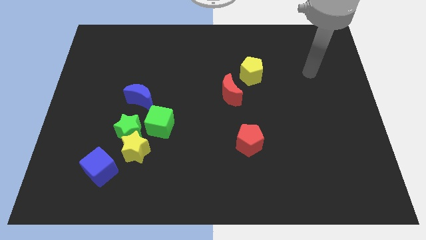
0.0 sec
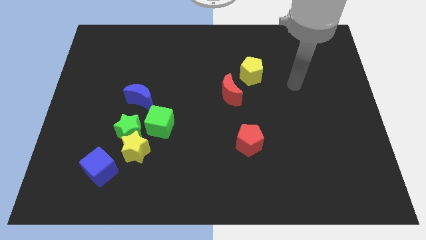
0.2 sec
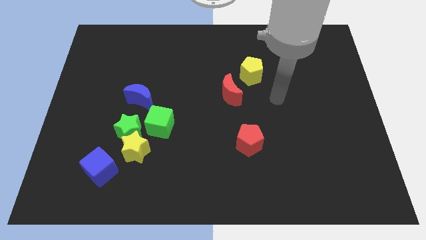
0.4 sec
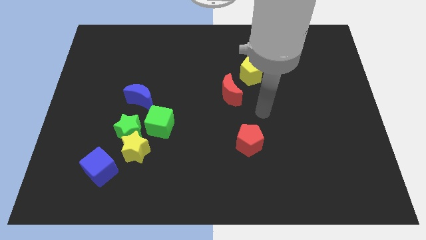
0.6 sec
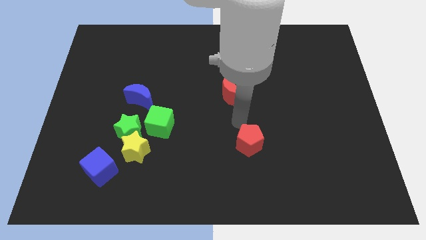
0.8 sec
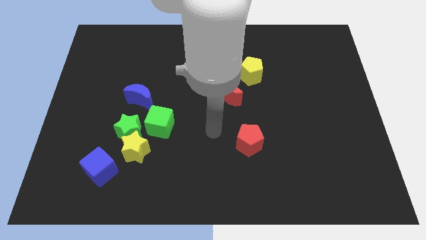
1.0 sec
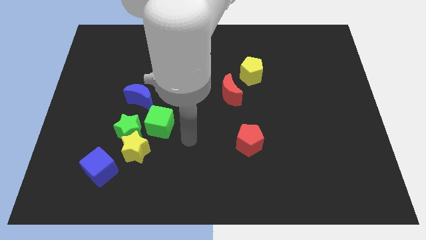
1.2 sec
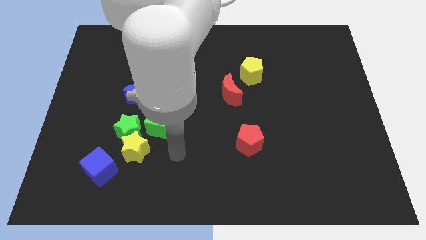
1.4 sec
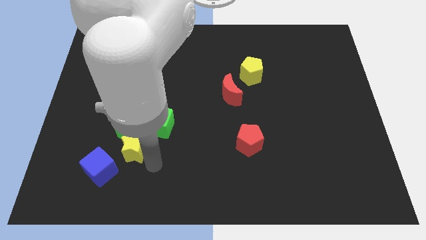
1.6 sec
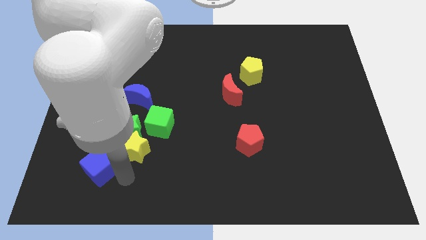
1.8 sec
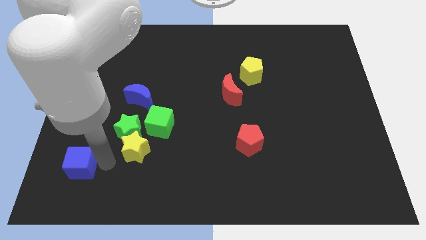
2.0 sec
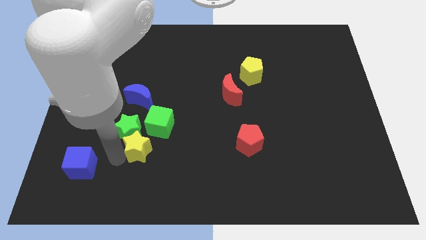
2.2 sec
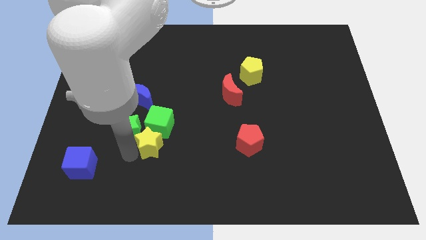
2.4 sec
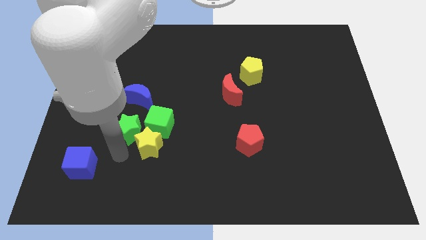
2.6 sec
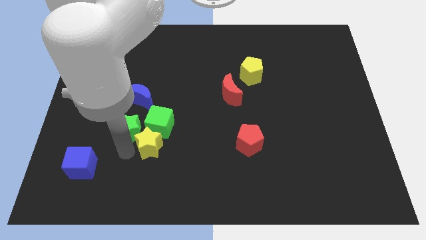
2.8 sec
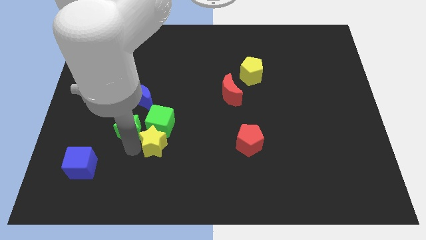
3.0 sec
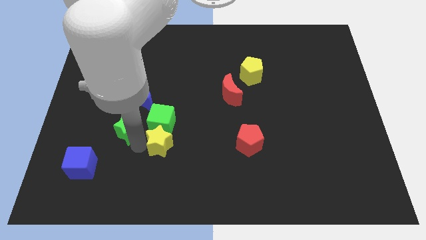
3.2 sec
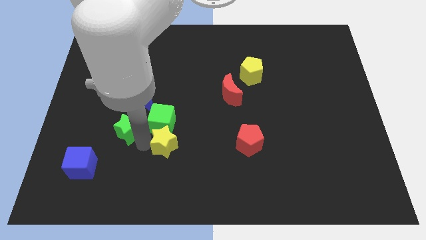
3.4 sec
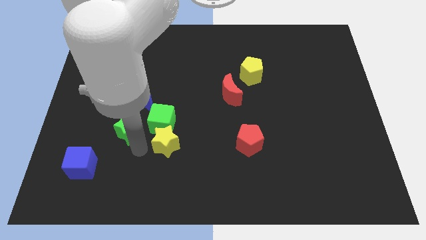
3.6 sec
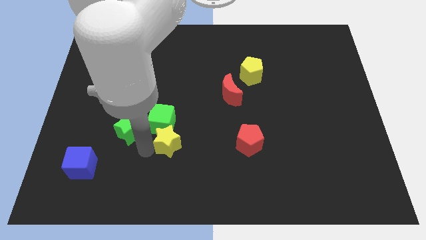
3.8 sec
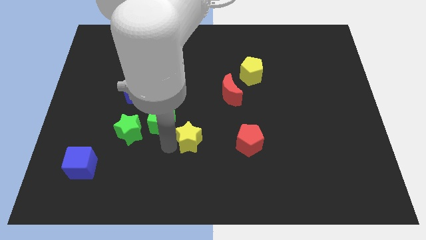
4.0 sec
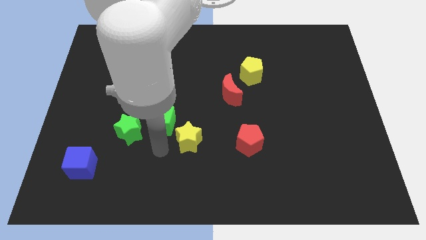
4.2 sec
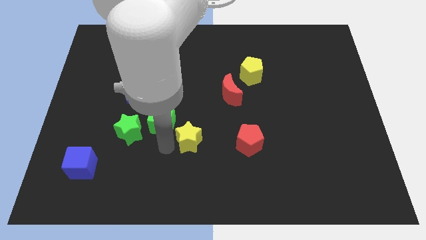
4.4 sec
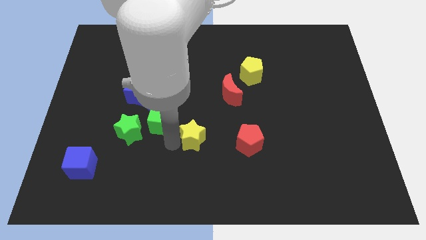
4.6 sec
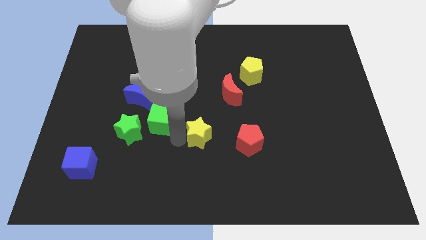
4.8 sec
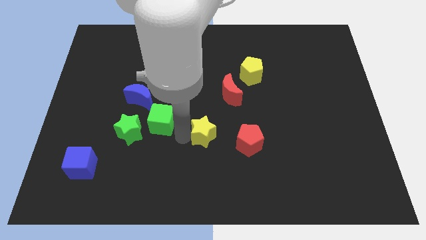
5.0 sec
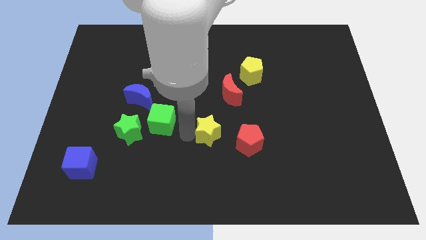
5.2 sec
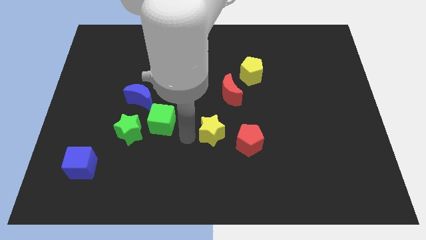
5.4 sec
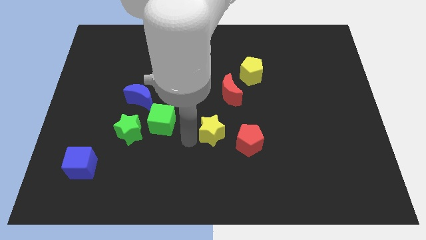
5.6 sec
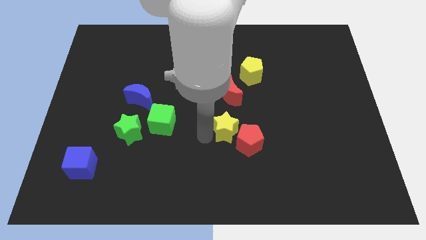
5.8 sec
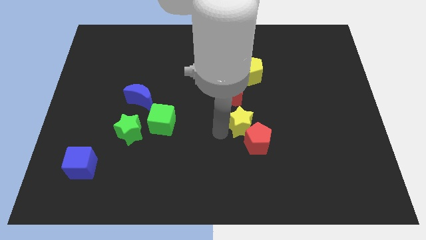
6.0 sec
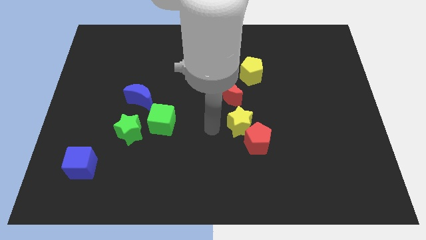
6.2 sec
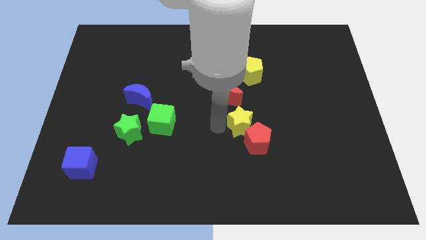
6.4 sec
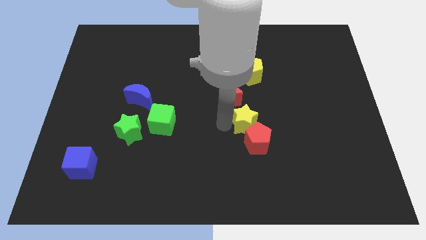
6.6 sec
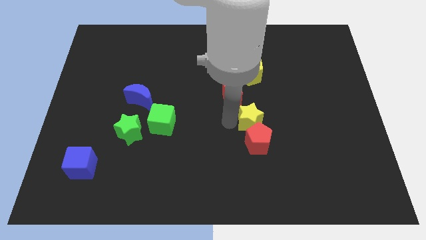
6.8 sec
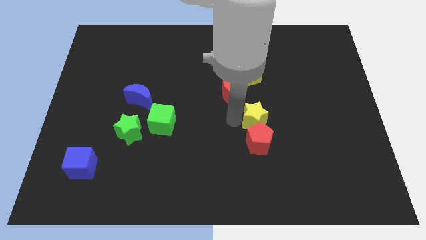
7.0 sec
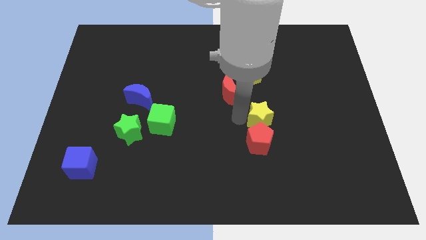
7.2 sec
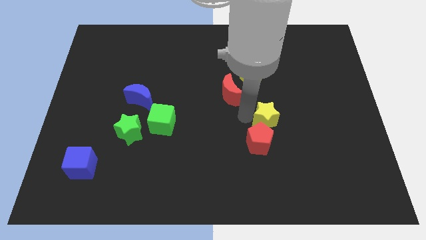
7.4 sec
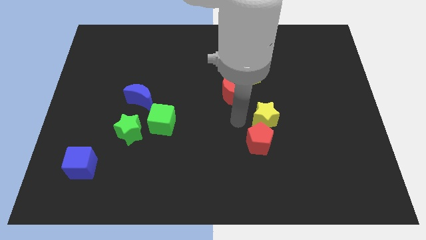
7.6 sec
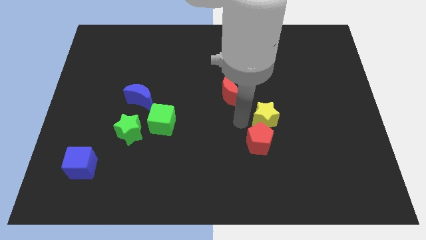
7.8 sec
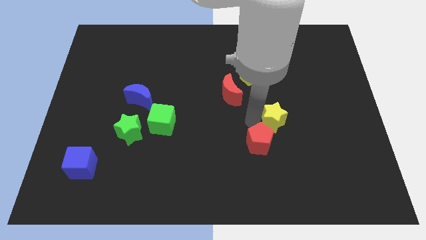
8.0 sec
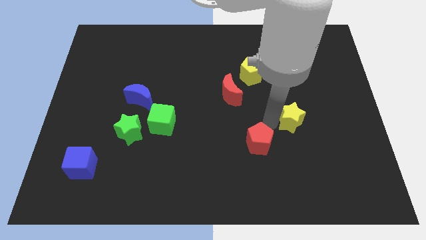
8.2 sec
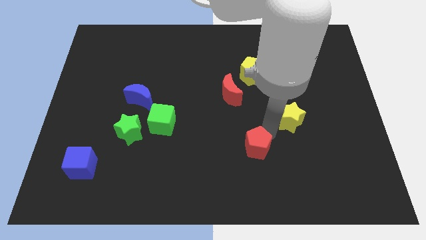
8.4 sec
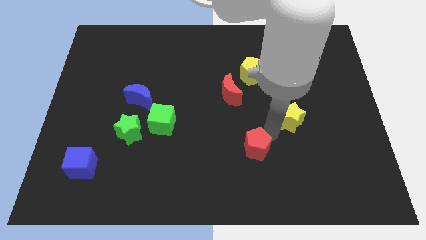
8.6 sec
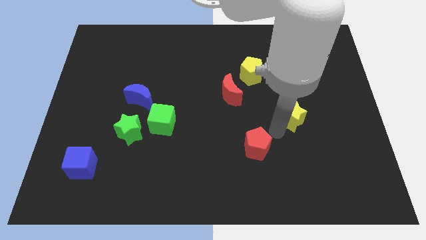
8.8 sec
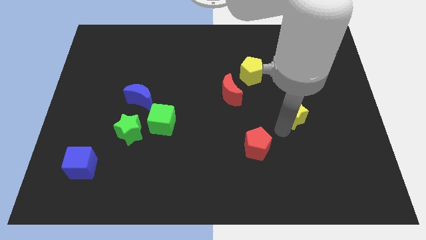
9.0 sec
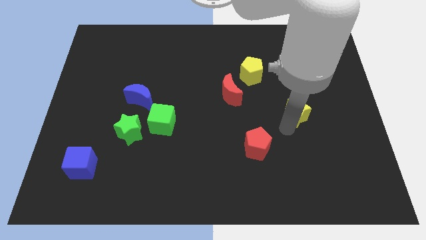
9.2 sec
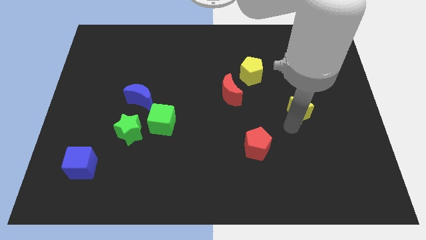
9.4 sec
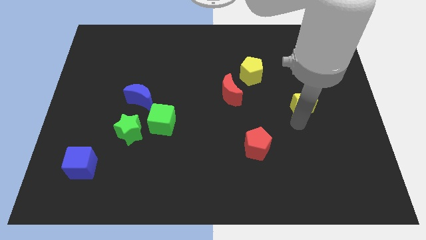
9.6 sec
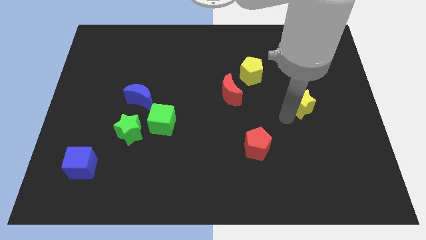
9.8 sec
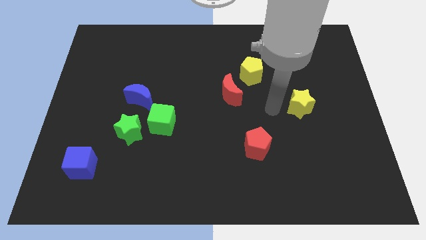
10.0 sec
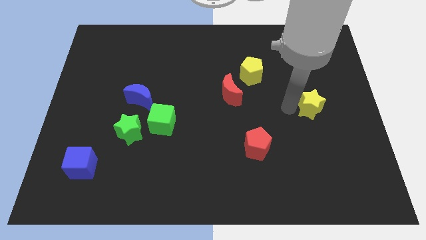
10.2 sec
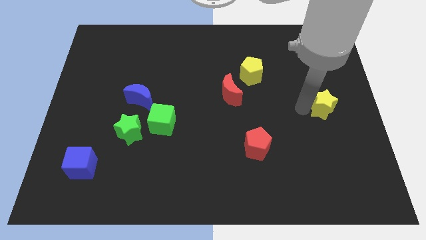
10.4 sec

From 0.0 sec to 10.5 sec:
slide the yellow star to the right side

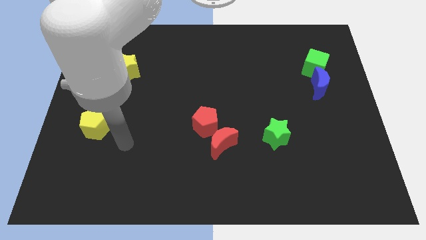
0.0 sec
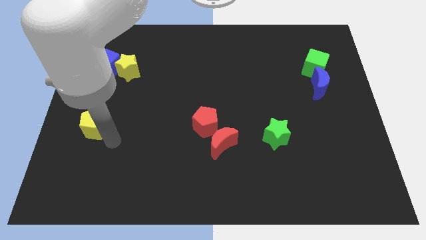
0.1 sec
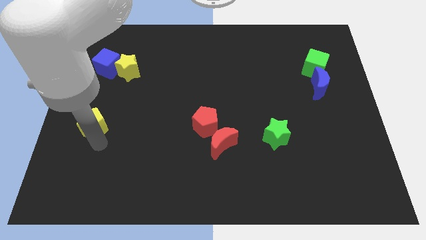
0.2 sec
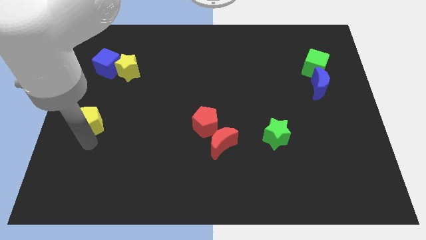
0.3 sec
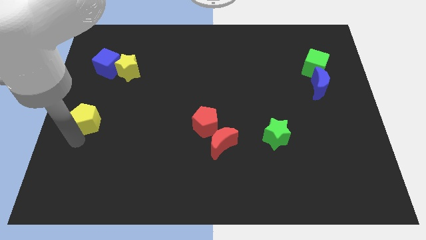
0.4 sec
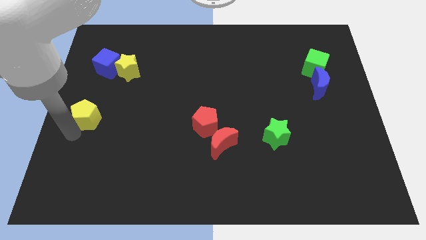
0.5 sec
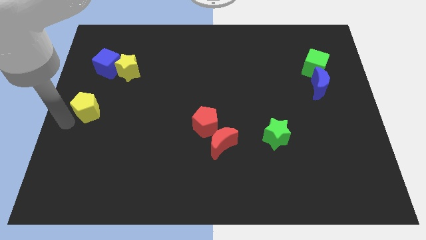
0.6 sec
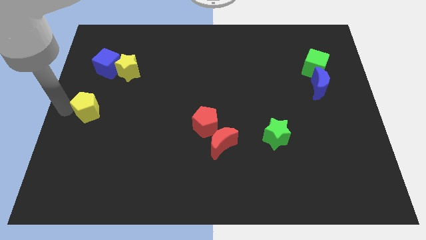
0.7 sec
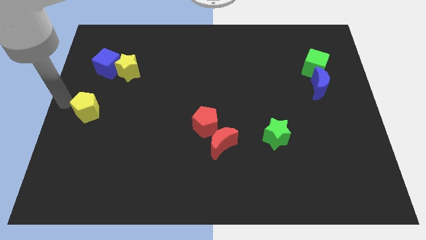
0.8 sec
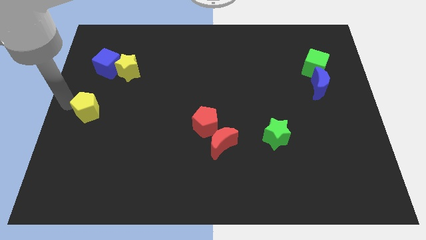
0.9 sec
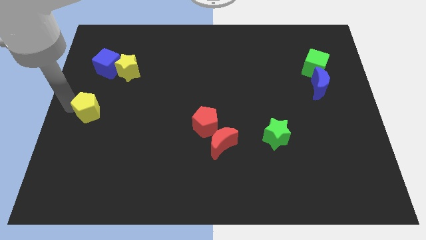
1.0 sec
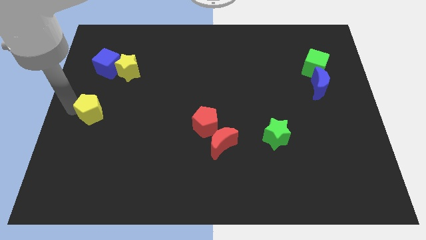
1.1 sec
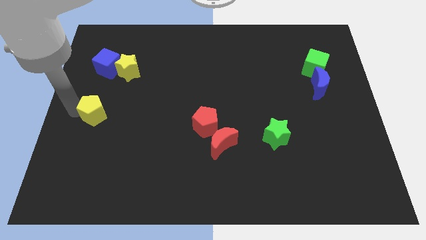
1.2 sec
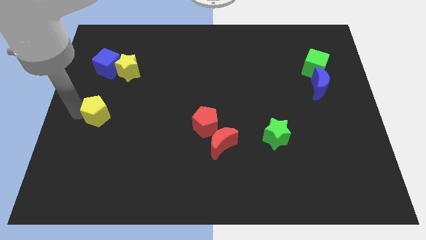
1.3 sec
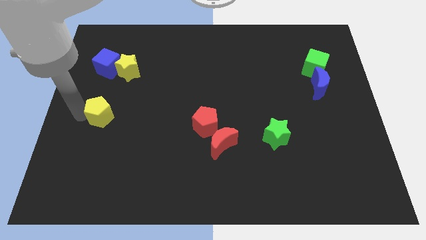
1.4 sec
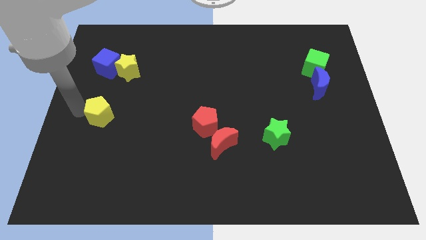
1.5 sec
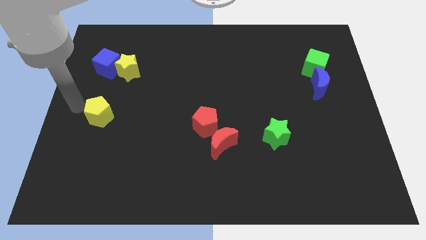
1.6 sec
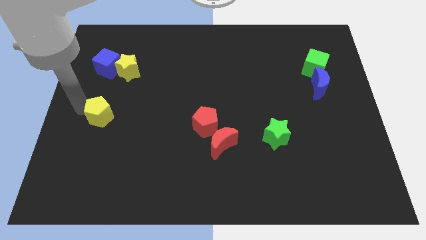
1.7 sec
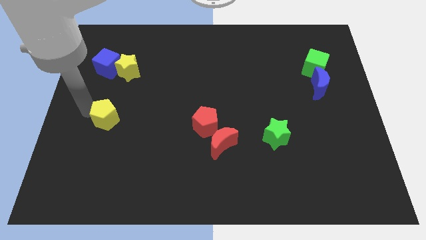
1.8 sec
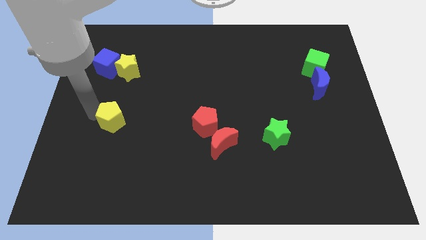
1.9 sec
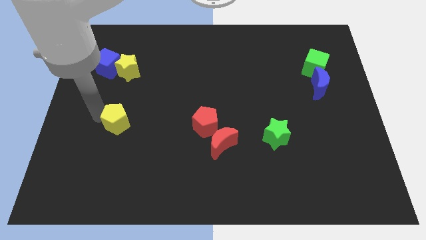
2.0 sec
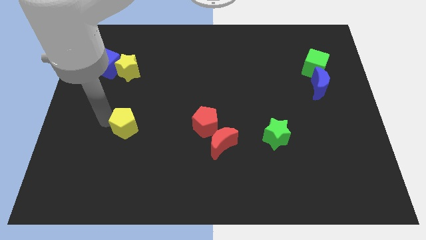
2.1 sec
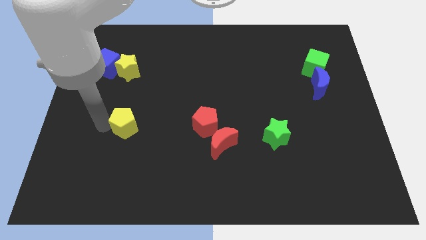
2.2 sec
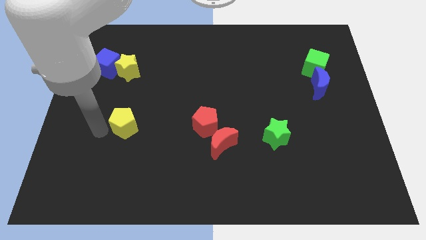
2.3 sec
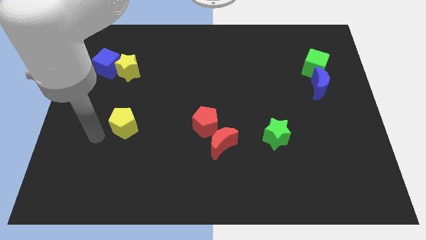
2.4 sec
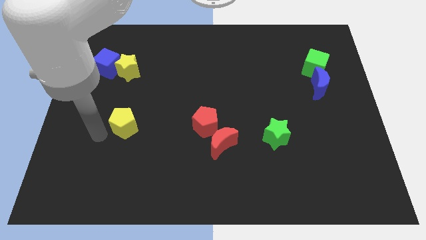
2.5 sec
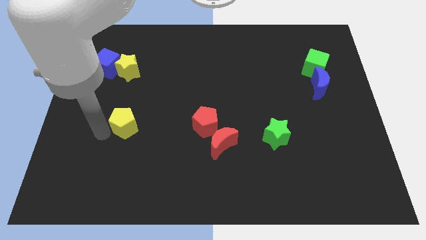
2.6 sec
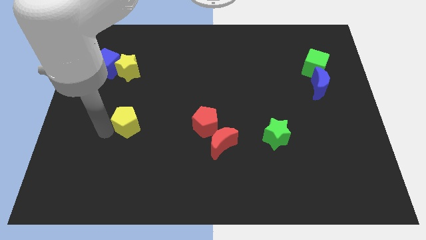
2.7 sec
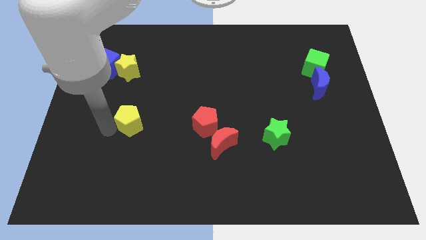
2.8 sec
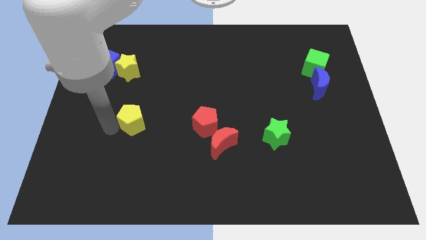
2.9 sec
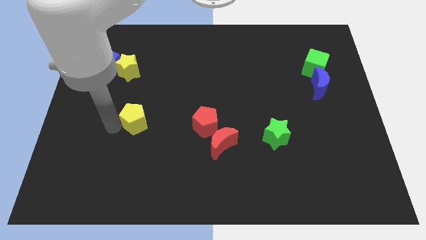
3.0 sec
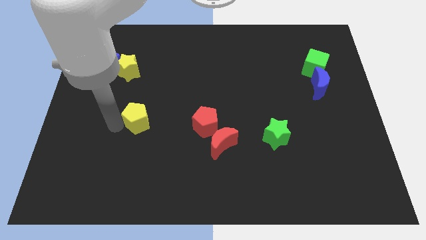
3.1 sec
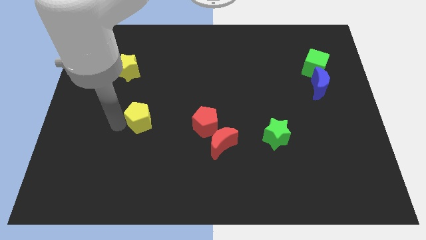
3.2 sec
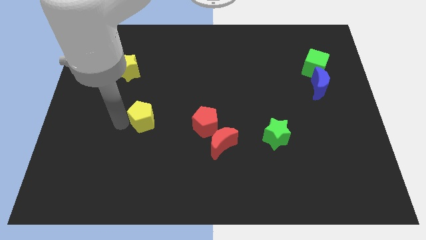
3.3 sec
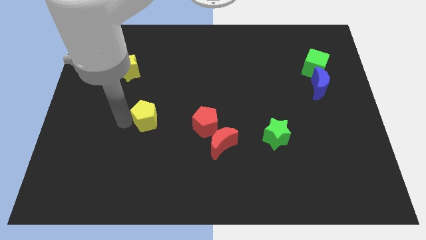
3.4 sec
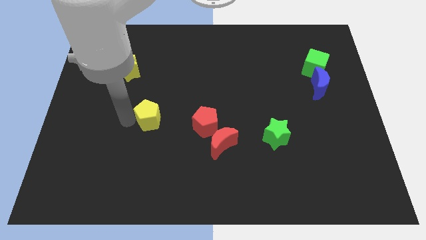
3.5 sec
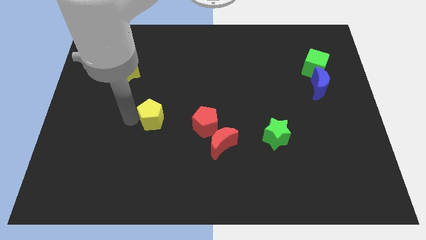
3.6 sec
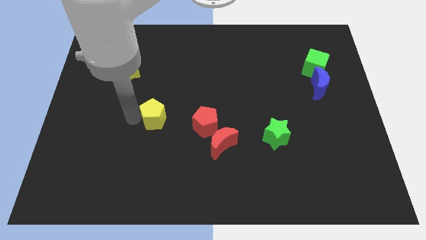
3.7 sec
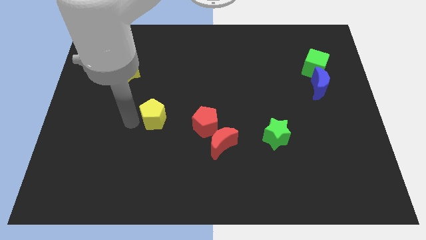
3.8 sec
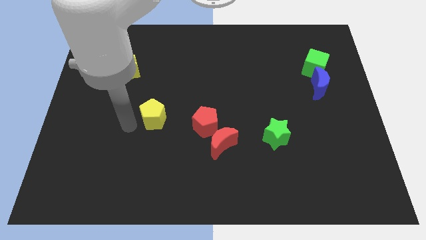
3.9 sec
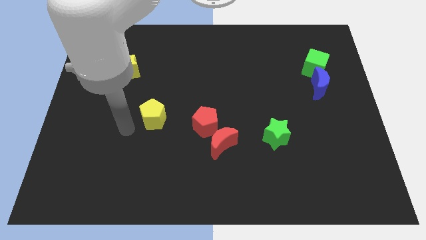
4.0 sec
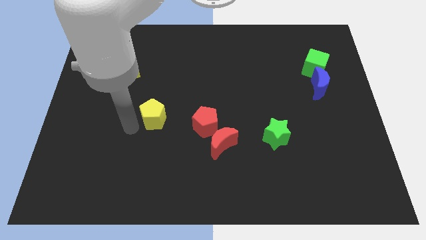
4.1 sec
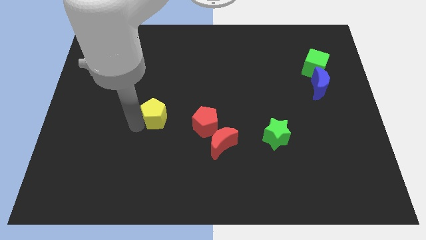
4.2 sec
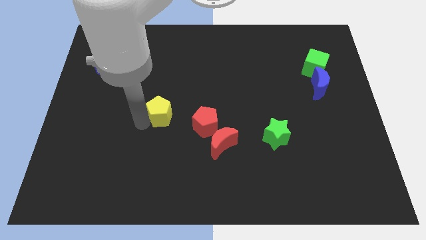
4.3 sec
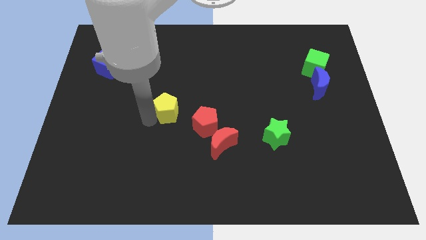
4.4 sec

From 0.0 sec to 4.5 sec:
put the yellow pentagon to the center
